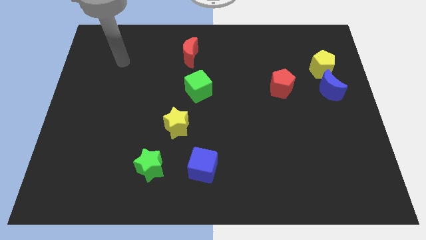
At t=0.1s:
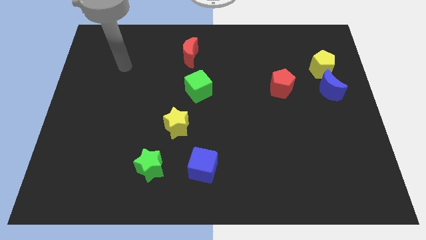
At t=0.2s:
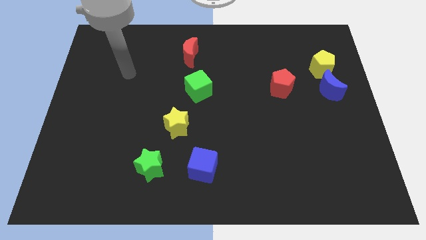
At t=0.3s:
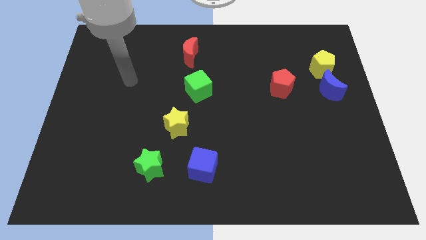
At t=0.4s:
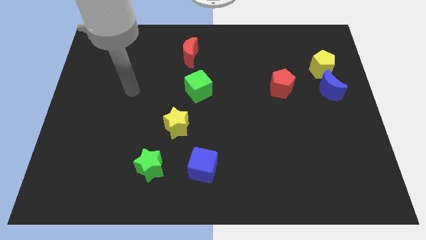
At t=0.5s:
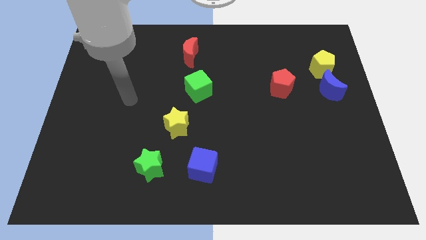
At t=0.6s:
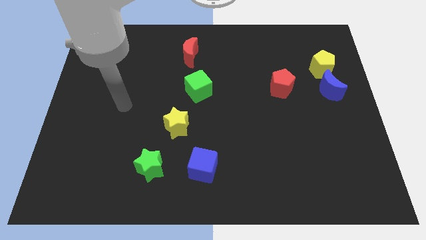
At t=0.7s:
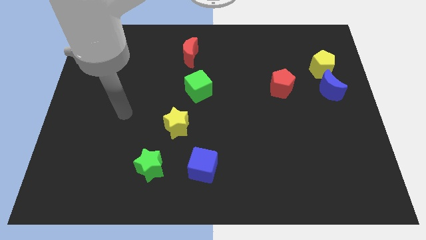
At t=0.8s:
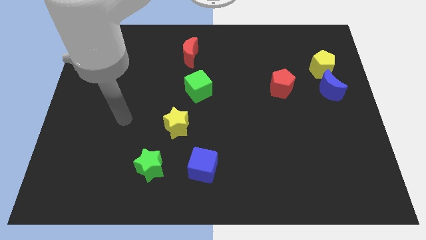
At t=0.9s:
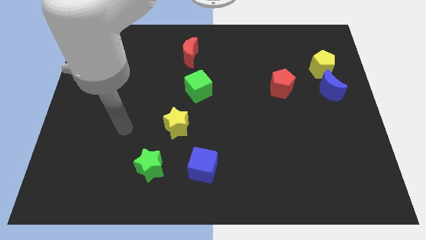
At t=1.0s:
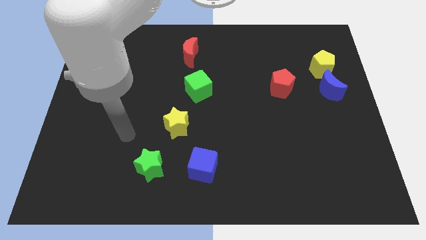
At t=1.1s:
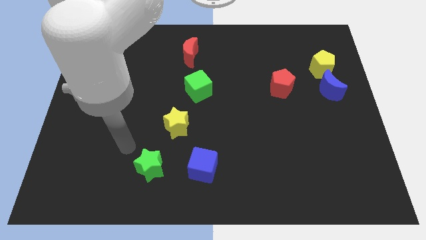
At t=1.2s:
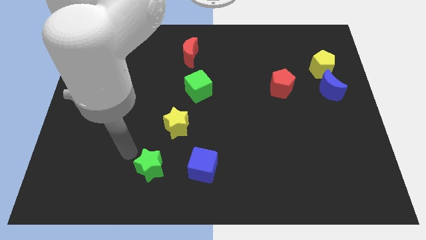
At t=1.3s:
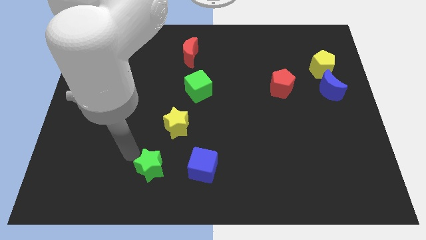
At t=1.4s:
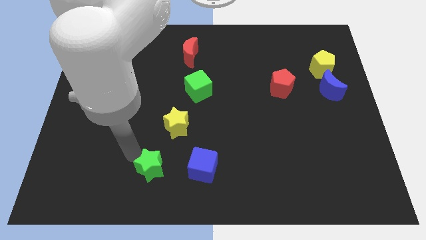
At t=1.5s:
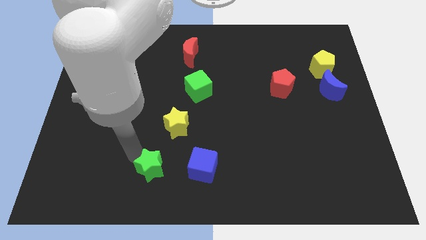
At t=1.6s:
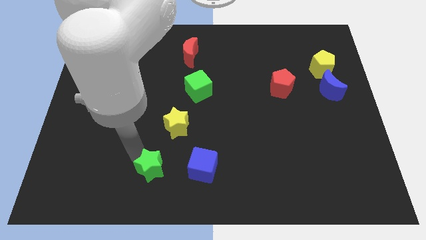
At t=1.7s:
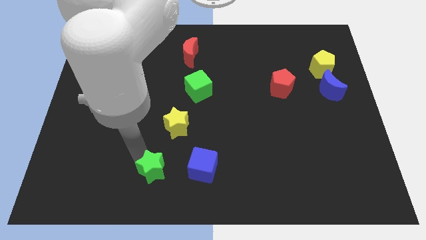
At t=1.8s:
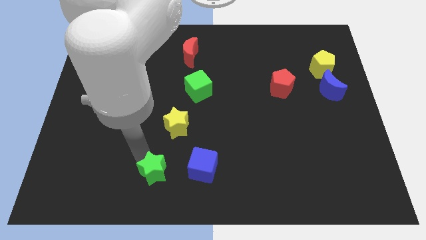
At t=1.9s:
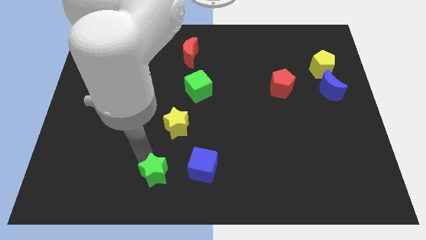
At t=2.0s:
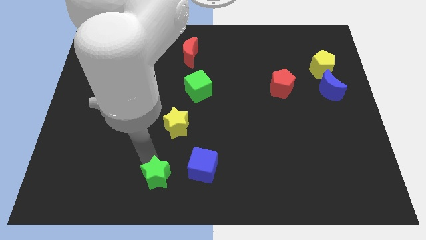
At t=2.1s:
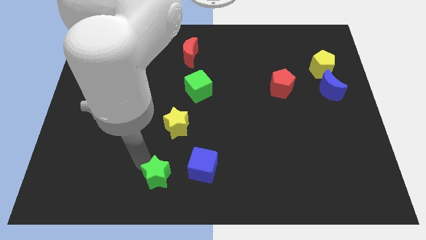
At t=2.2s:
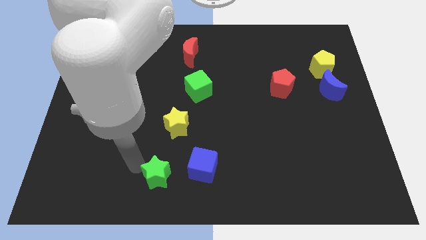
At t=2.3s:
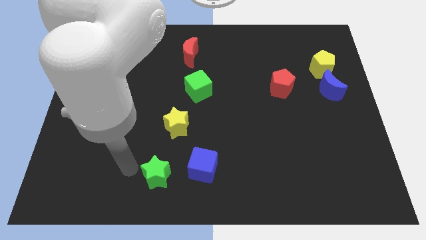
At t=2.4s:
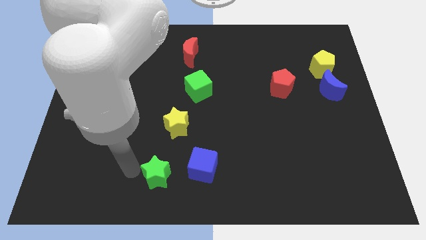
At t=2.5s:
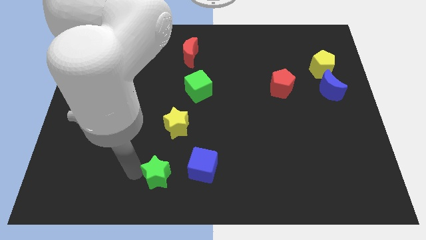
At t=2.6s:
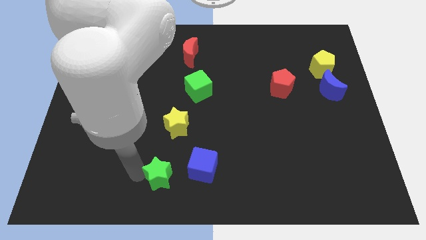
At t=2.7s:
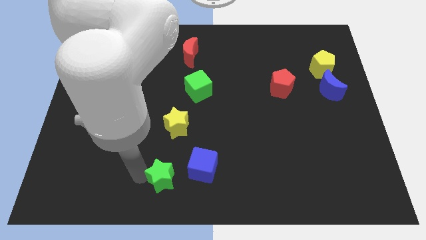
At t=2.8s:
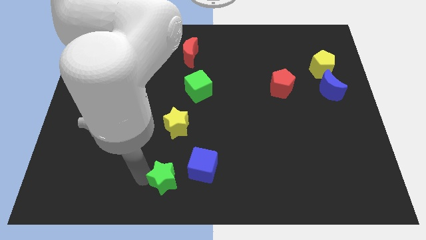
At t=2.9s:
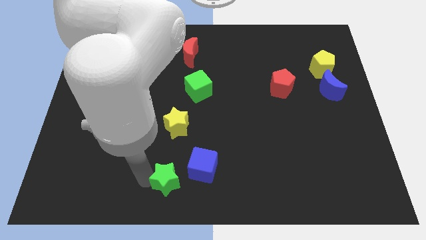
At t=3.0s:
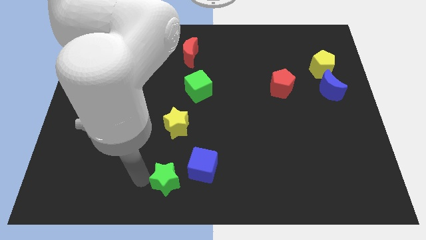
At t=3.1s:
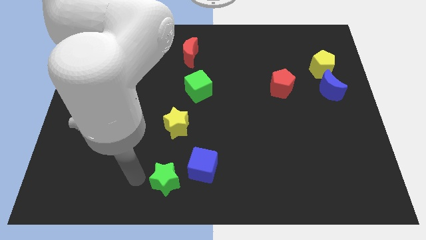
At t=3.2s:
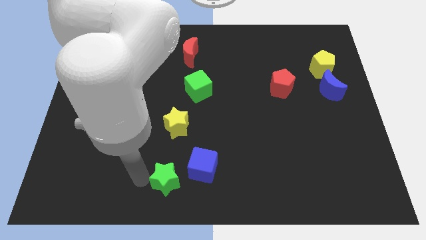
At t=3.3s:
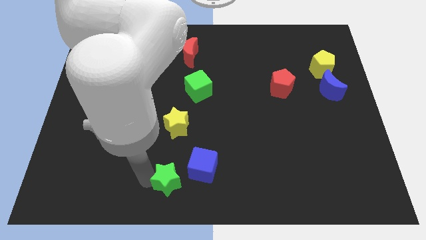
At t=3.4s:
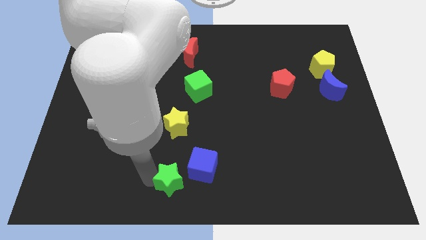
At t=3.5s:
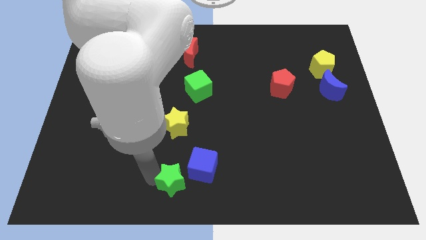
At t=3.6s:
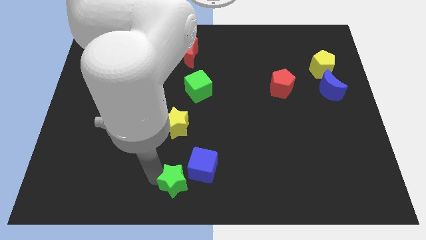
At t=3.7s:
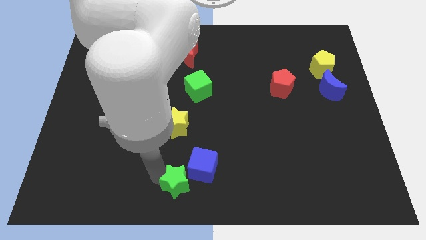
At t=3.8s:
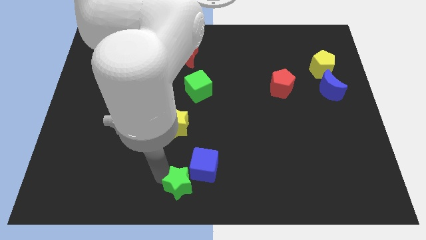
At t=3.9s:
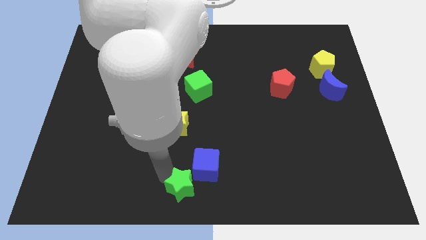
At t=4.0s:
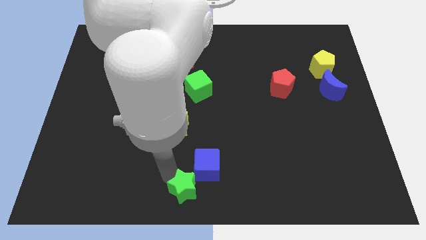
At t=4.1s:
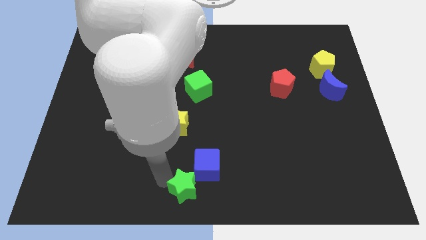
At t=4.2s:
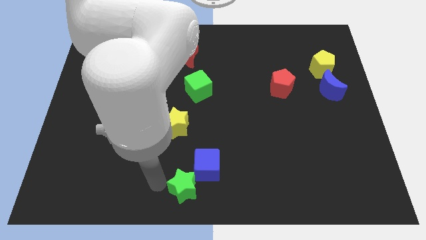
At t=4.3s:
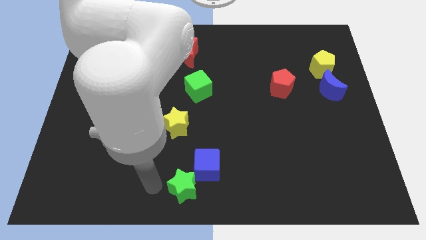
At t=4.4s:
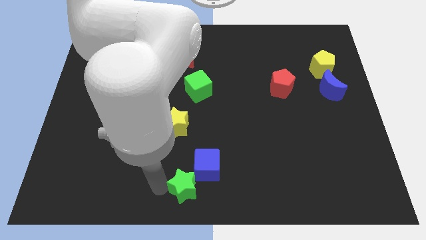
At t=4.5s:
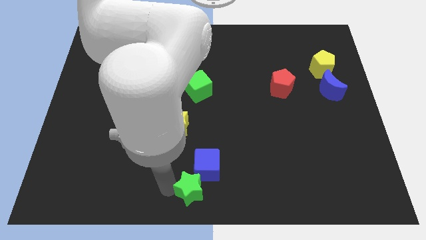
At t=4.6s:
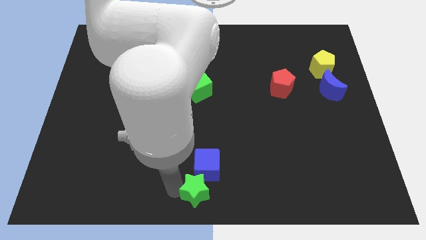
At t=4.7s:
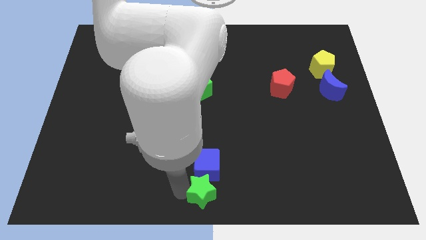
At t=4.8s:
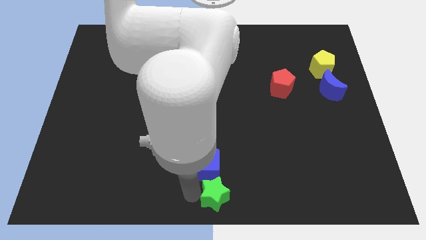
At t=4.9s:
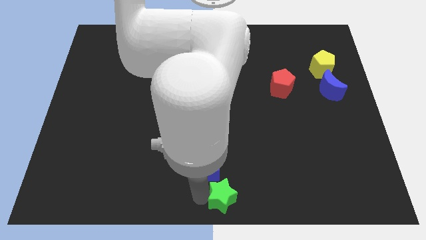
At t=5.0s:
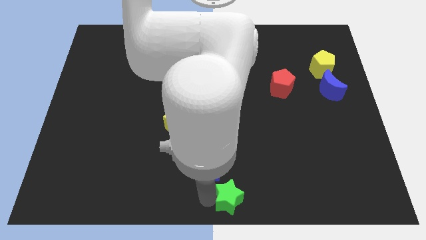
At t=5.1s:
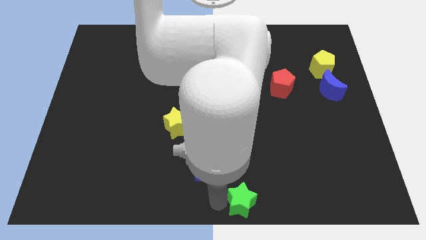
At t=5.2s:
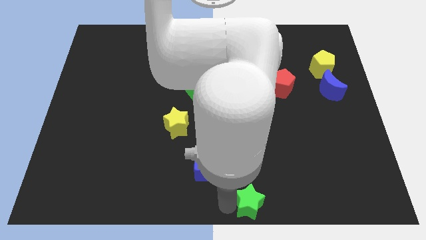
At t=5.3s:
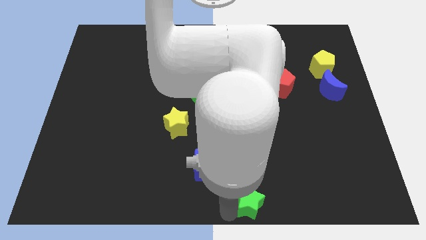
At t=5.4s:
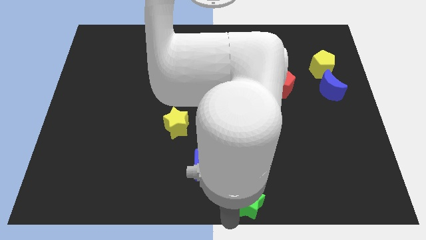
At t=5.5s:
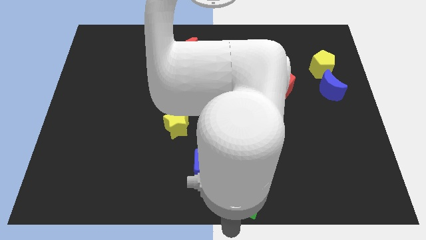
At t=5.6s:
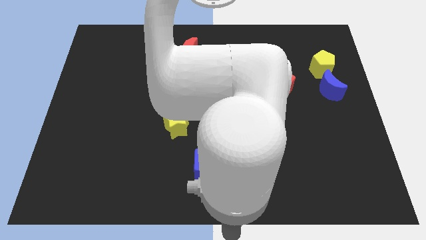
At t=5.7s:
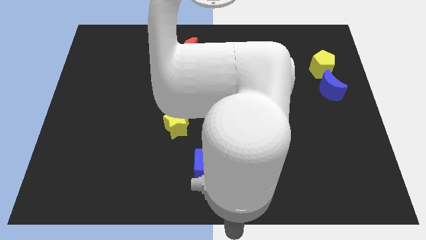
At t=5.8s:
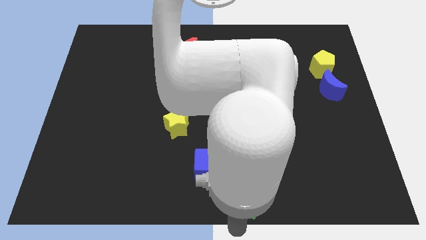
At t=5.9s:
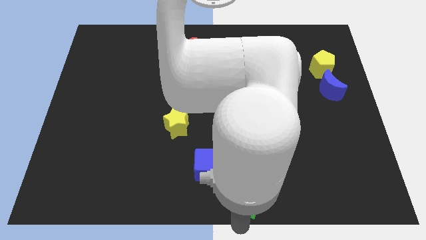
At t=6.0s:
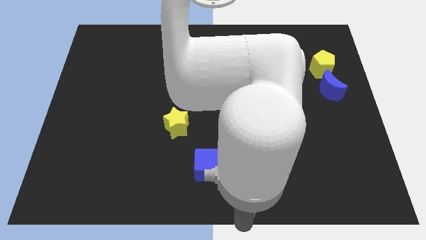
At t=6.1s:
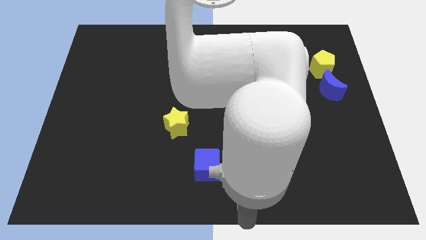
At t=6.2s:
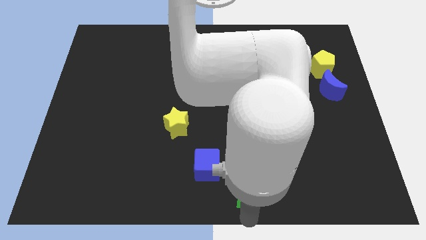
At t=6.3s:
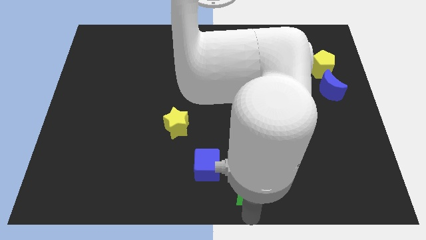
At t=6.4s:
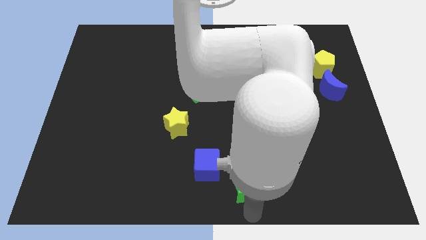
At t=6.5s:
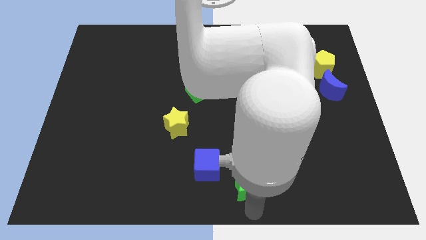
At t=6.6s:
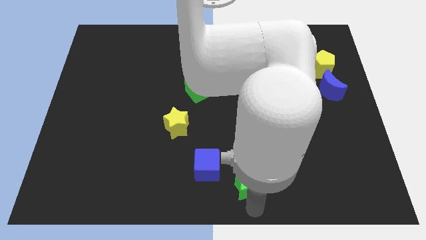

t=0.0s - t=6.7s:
slide the green star right

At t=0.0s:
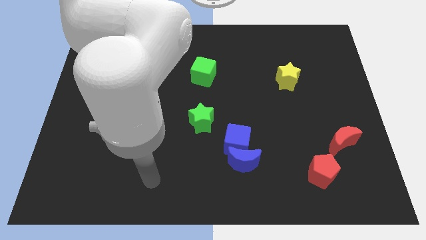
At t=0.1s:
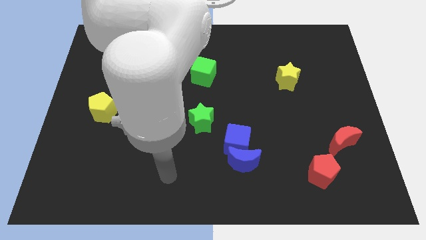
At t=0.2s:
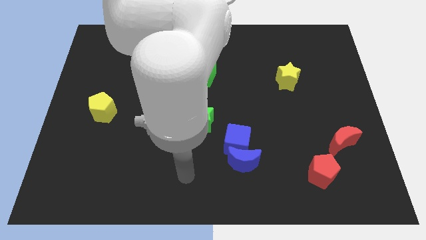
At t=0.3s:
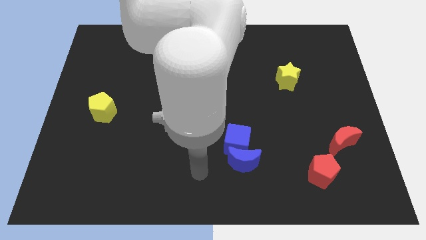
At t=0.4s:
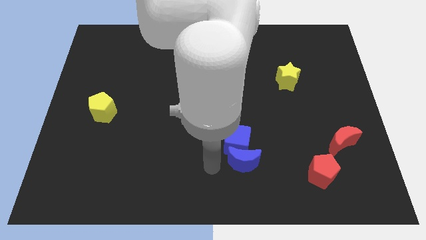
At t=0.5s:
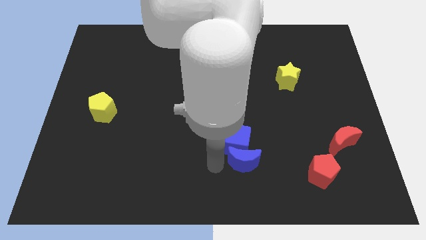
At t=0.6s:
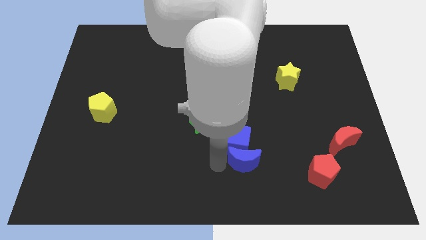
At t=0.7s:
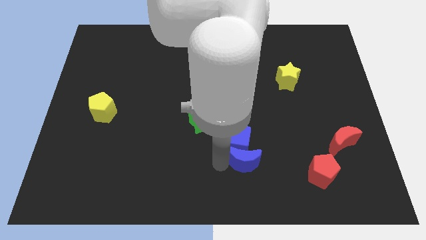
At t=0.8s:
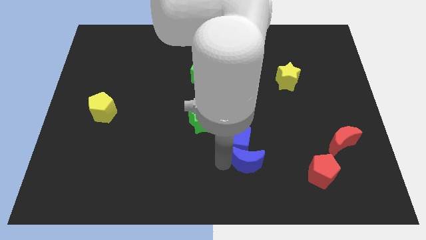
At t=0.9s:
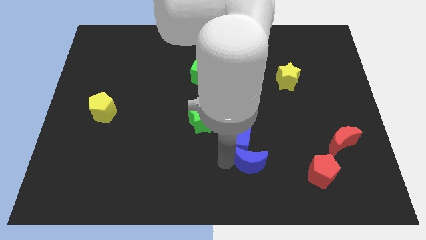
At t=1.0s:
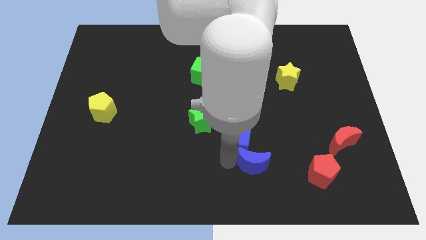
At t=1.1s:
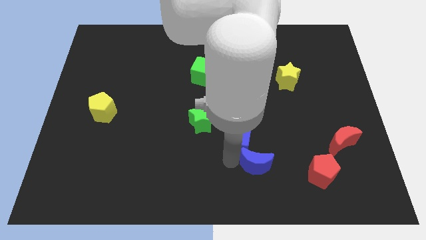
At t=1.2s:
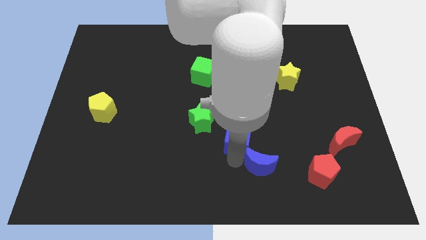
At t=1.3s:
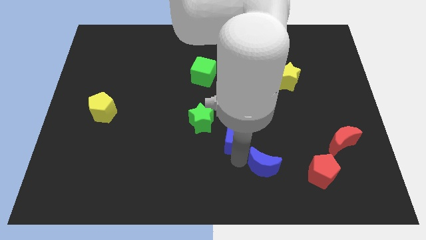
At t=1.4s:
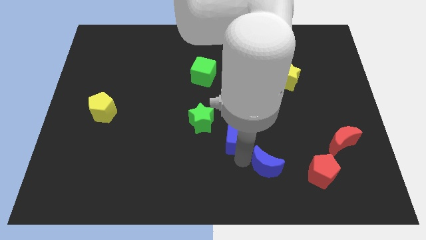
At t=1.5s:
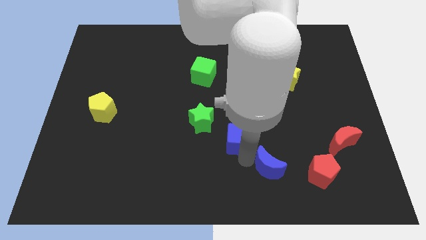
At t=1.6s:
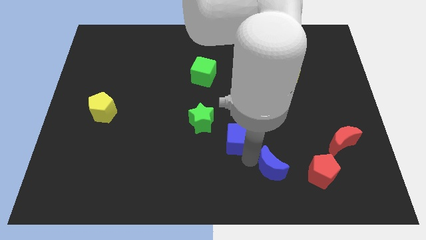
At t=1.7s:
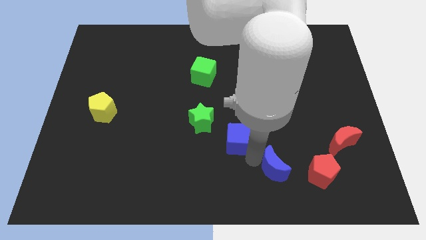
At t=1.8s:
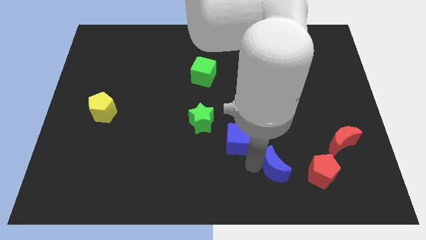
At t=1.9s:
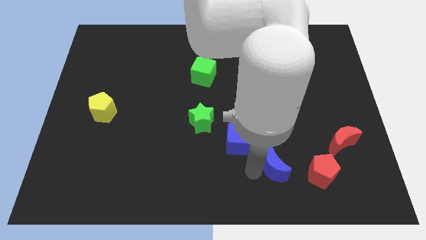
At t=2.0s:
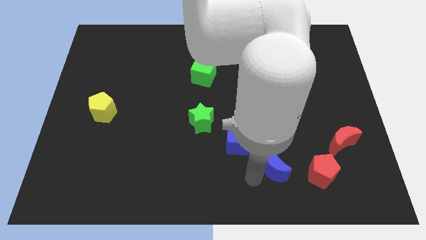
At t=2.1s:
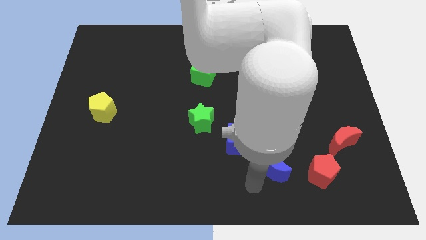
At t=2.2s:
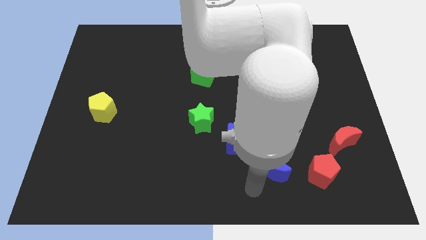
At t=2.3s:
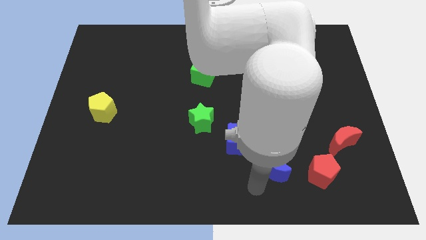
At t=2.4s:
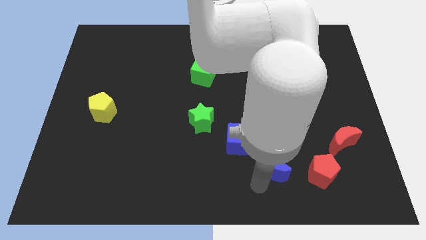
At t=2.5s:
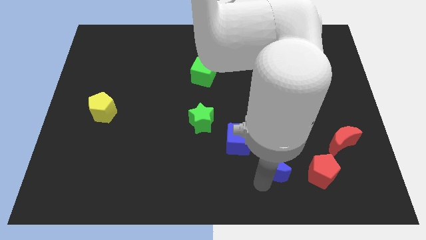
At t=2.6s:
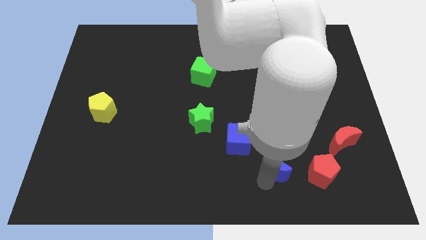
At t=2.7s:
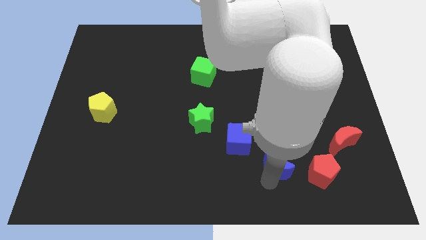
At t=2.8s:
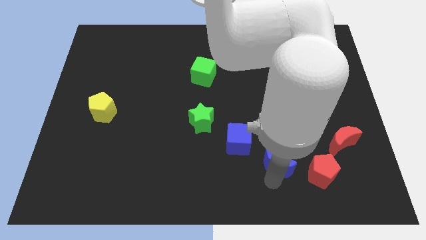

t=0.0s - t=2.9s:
push the blue moon slightly to the right
